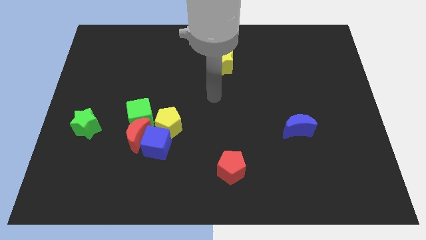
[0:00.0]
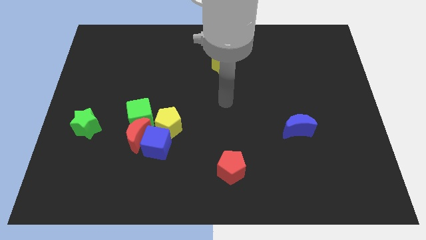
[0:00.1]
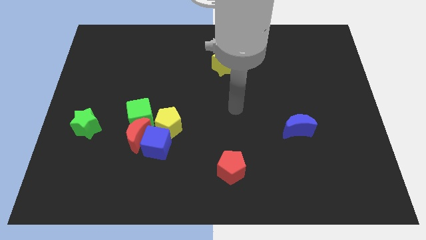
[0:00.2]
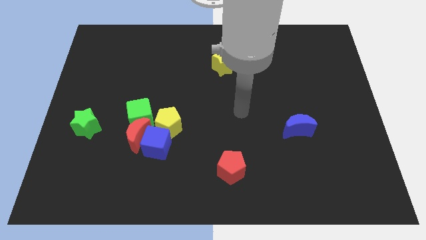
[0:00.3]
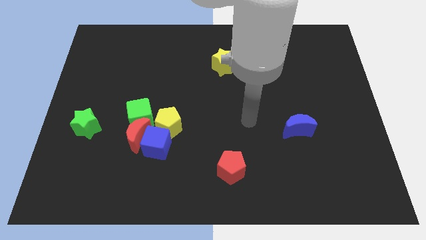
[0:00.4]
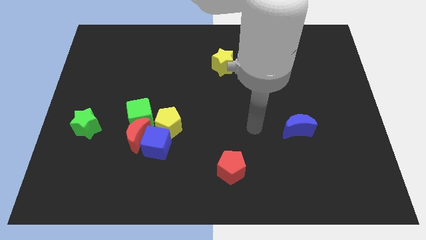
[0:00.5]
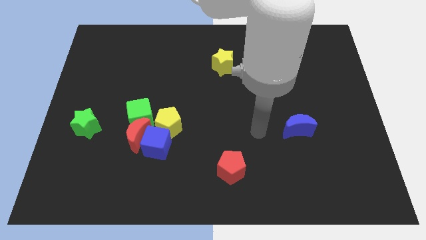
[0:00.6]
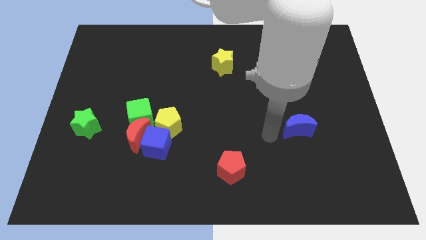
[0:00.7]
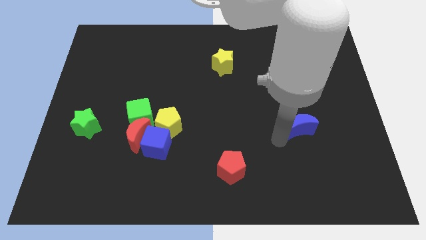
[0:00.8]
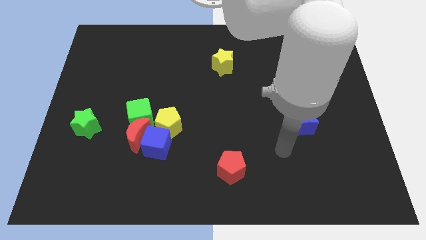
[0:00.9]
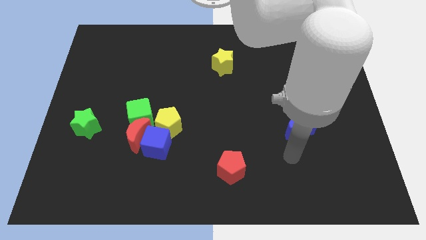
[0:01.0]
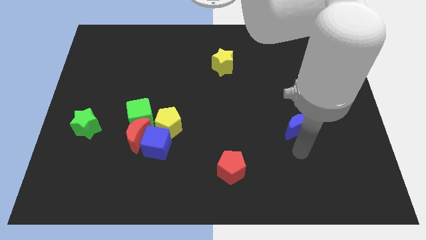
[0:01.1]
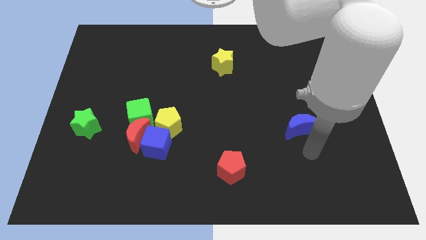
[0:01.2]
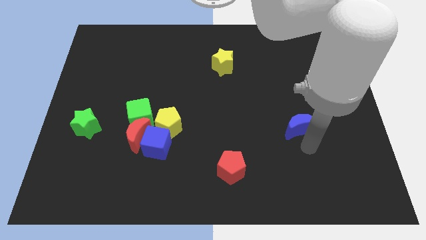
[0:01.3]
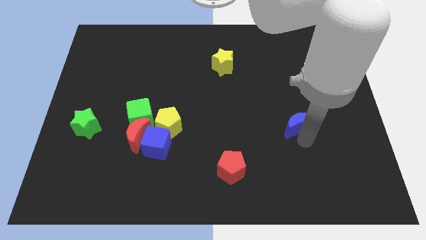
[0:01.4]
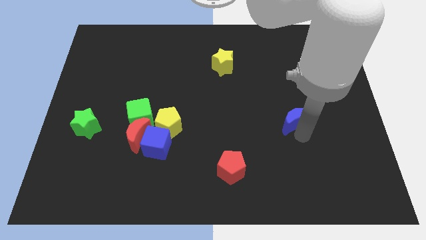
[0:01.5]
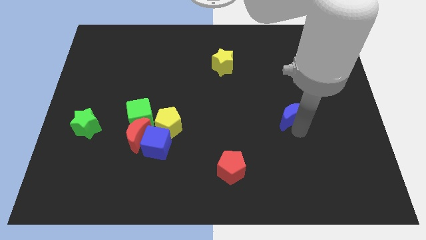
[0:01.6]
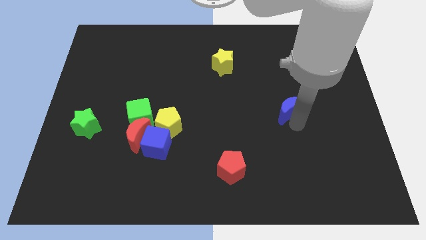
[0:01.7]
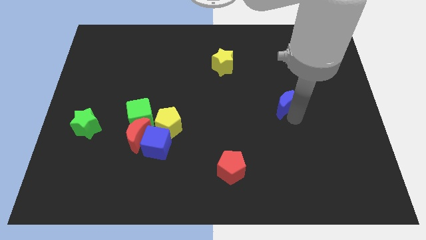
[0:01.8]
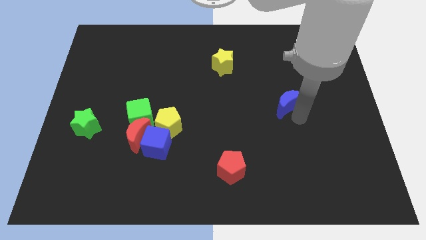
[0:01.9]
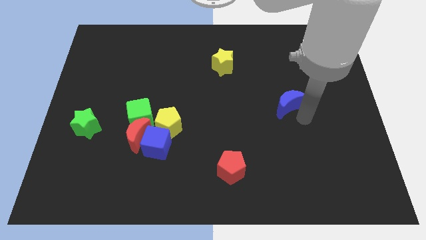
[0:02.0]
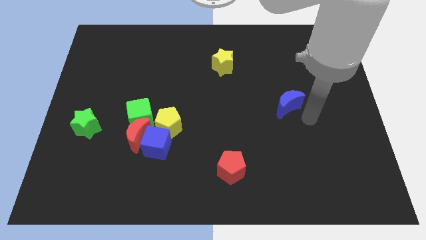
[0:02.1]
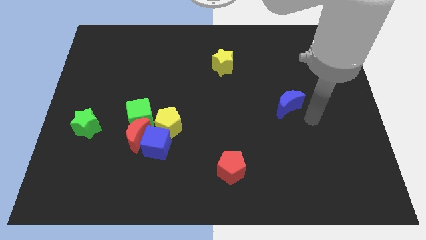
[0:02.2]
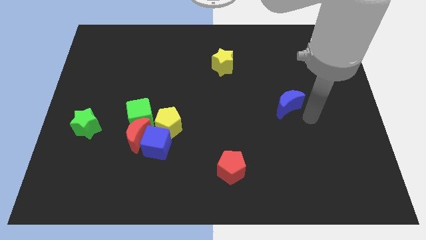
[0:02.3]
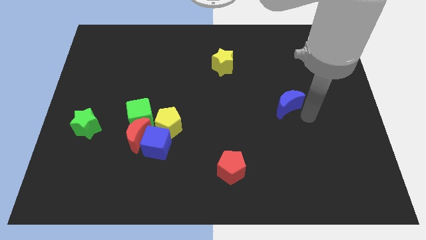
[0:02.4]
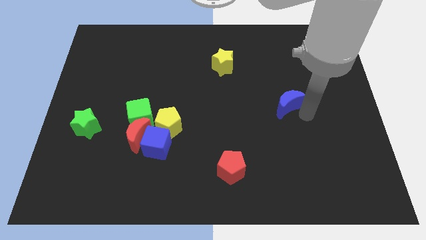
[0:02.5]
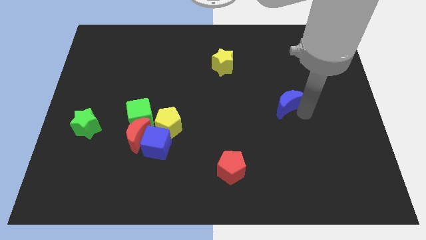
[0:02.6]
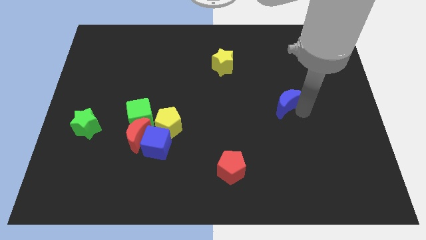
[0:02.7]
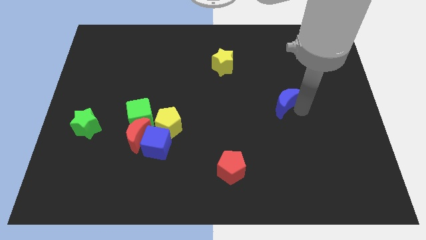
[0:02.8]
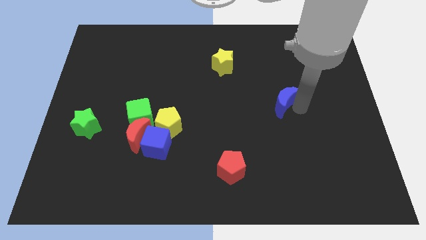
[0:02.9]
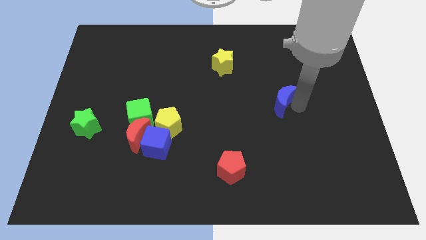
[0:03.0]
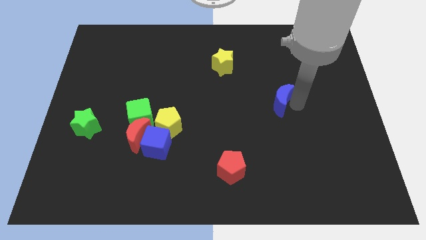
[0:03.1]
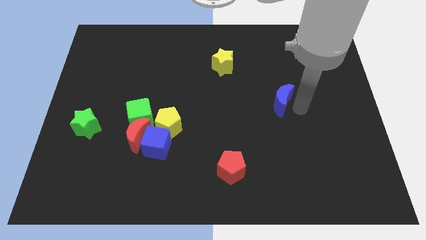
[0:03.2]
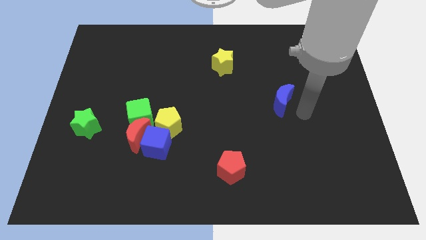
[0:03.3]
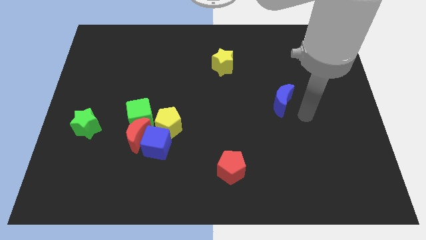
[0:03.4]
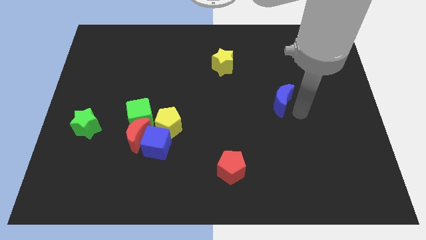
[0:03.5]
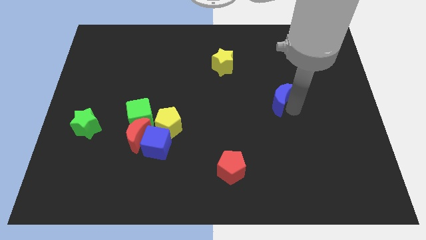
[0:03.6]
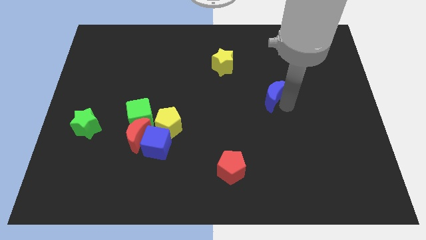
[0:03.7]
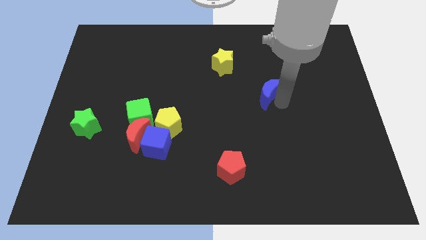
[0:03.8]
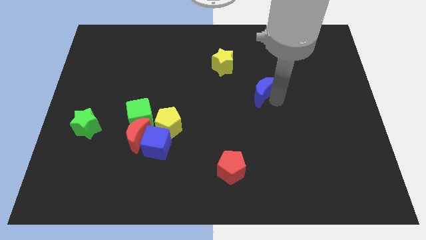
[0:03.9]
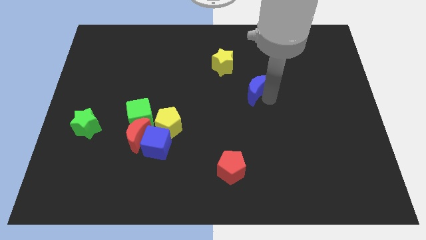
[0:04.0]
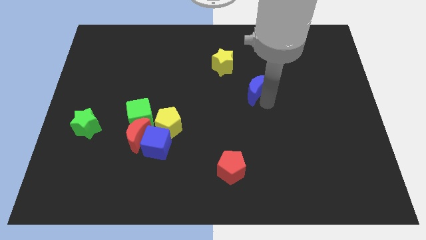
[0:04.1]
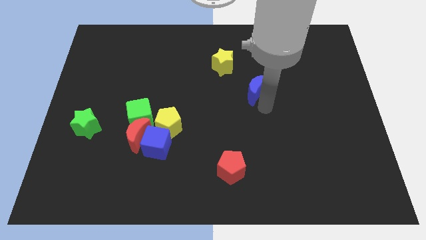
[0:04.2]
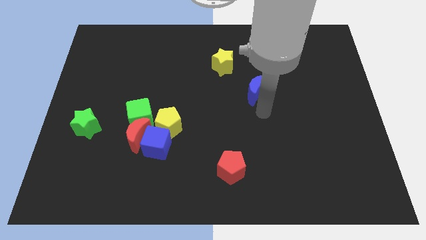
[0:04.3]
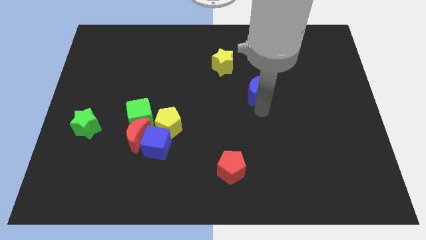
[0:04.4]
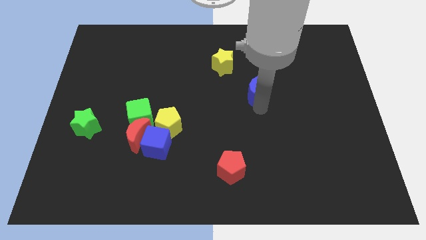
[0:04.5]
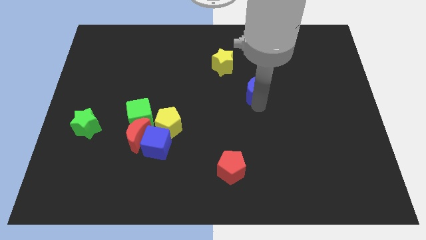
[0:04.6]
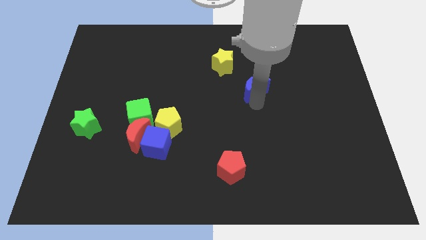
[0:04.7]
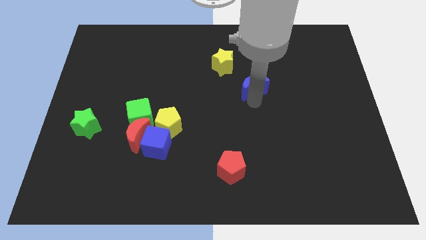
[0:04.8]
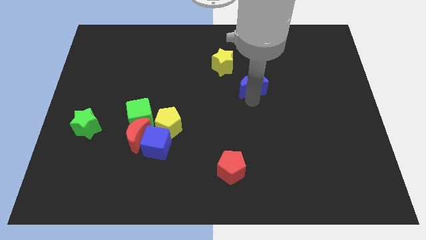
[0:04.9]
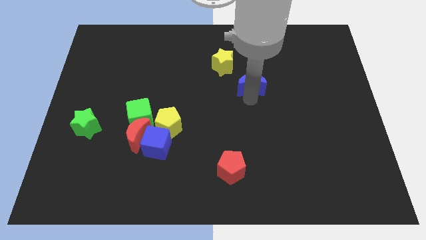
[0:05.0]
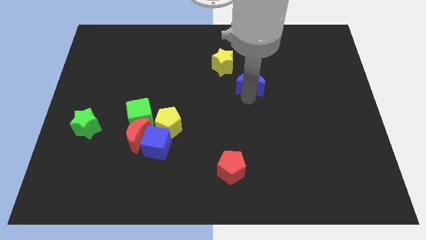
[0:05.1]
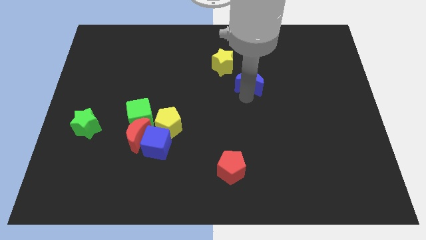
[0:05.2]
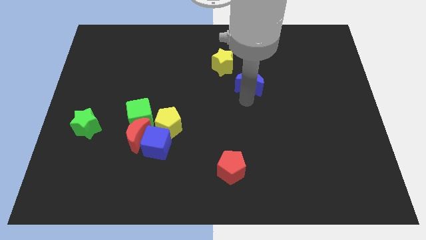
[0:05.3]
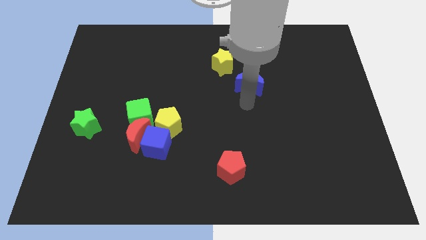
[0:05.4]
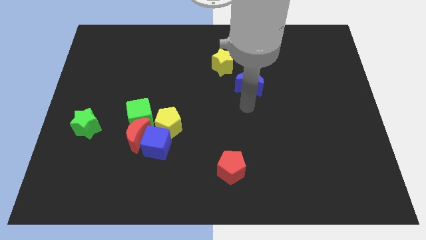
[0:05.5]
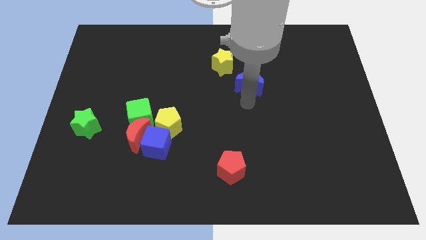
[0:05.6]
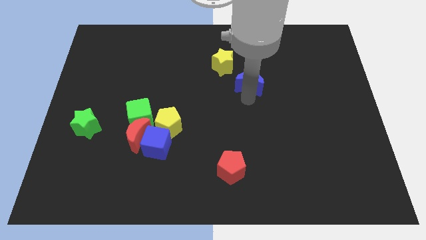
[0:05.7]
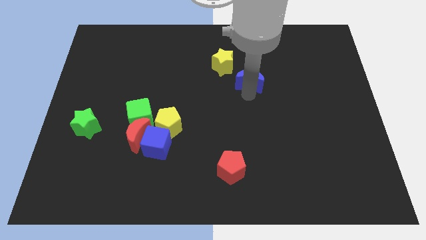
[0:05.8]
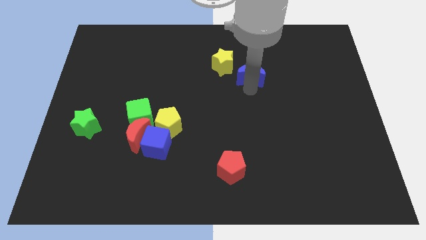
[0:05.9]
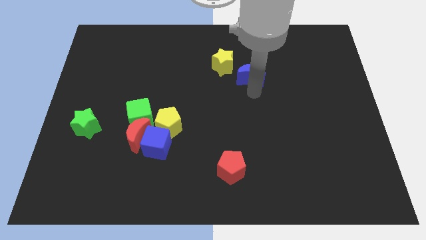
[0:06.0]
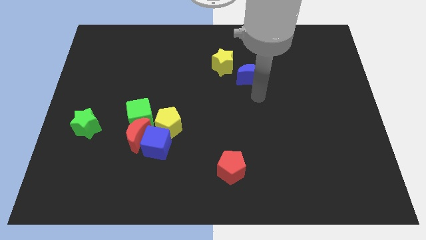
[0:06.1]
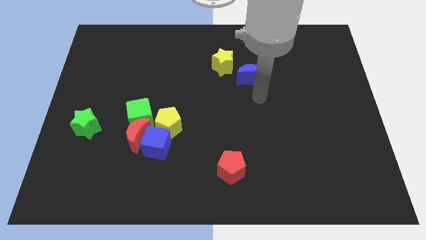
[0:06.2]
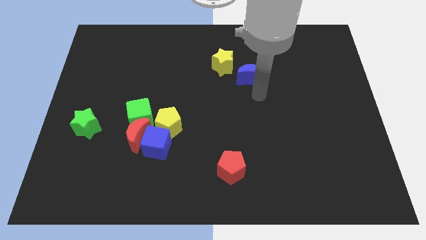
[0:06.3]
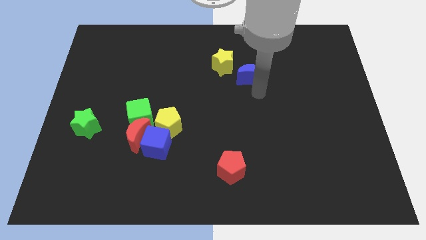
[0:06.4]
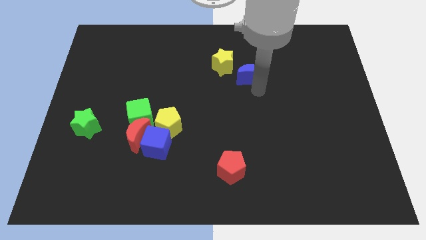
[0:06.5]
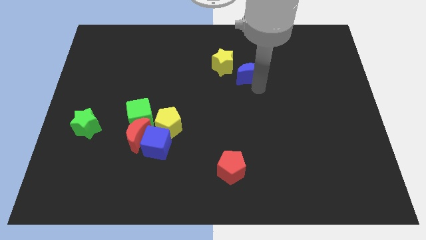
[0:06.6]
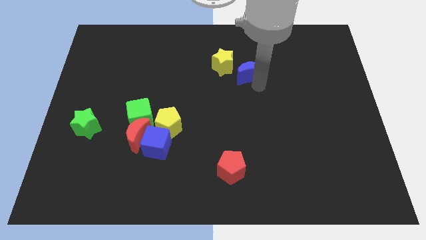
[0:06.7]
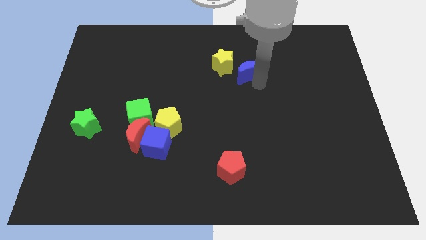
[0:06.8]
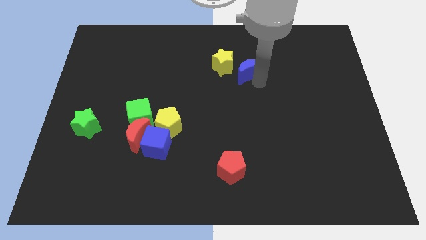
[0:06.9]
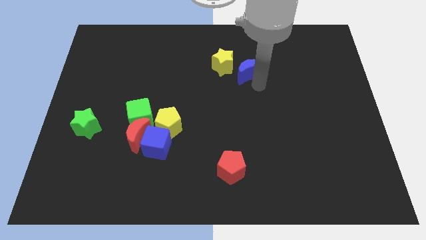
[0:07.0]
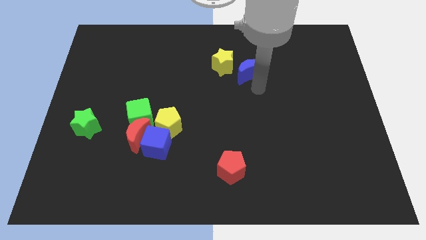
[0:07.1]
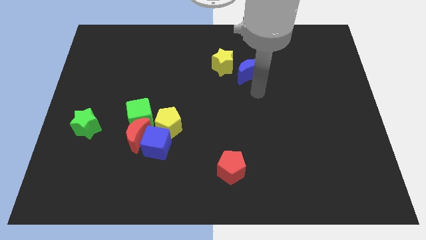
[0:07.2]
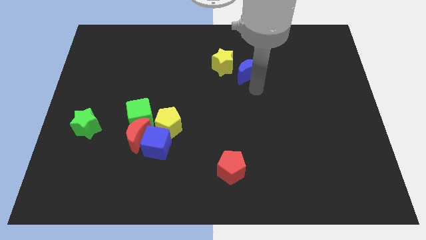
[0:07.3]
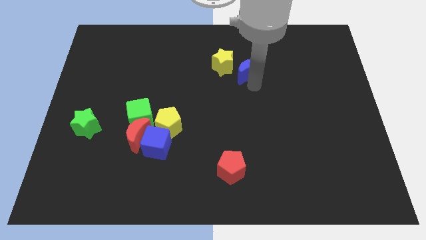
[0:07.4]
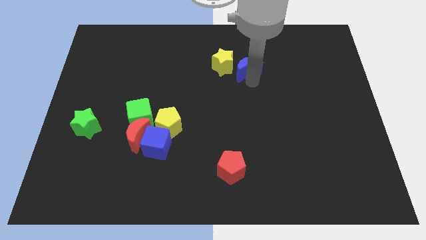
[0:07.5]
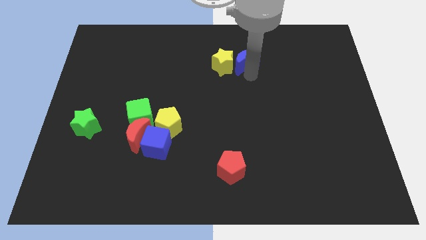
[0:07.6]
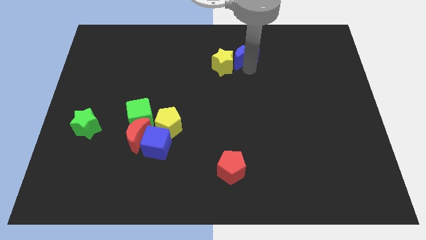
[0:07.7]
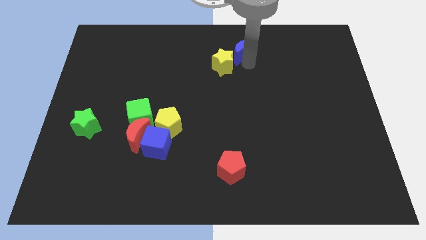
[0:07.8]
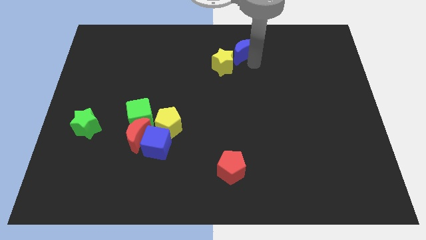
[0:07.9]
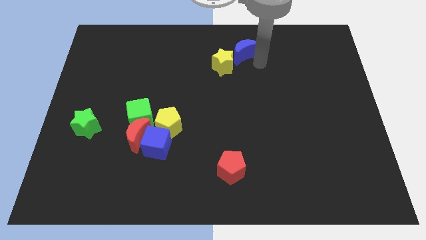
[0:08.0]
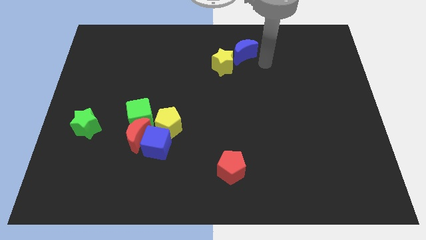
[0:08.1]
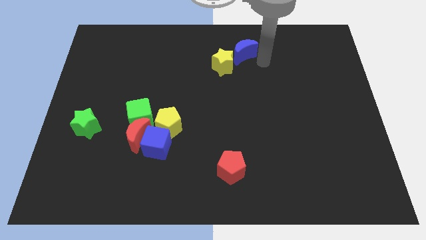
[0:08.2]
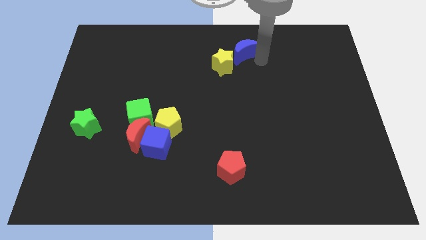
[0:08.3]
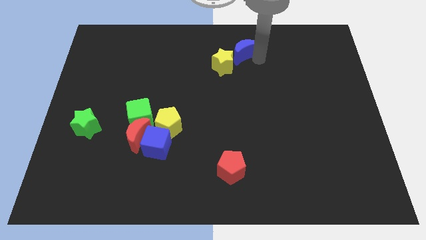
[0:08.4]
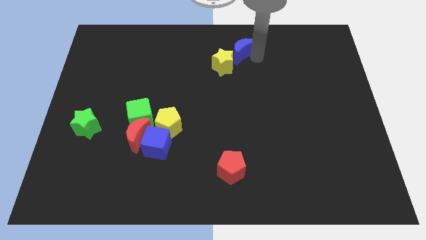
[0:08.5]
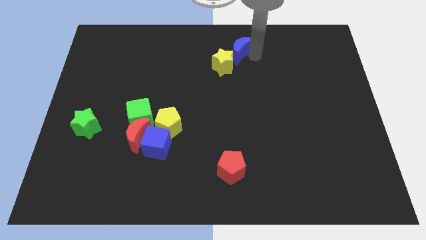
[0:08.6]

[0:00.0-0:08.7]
slide the blue moon to the top side
